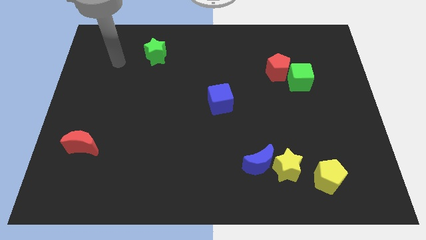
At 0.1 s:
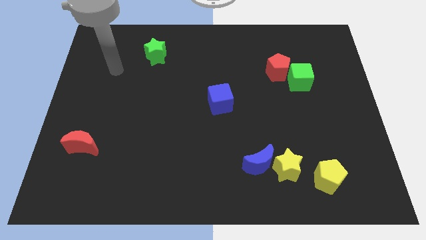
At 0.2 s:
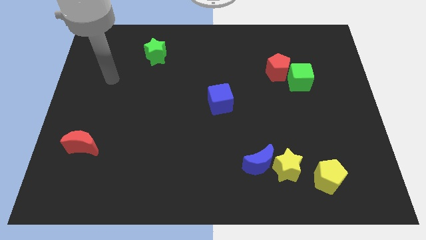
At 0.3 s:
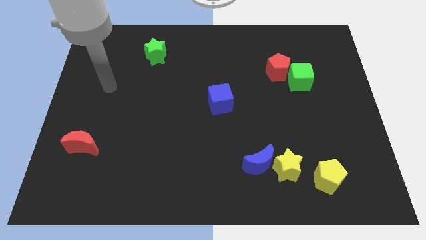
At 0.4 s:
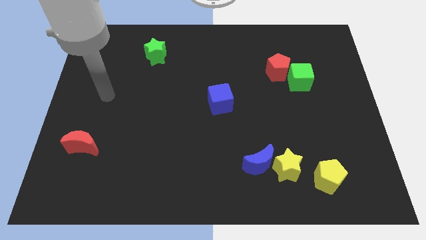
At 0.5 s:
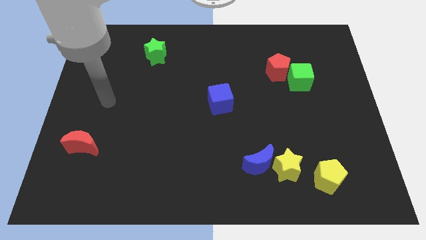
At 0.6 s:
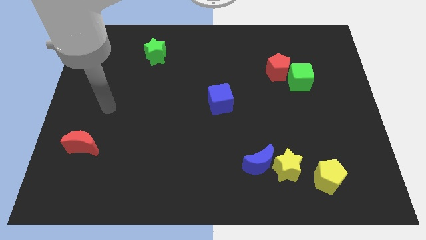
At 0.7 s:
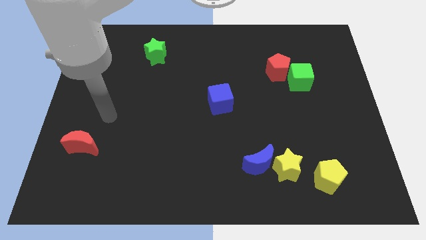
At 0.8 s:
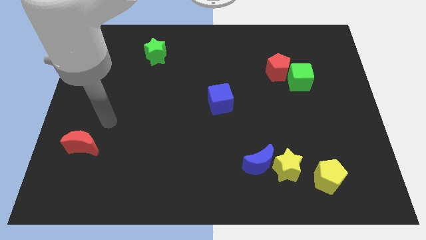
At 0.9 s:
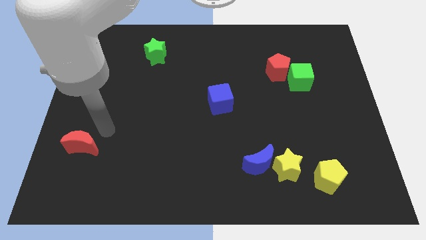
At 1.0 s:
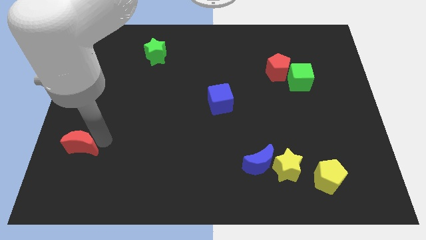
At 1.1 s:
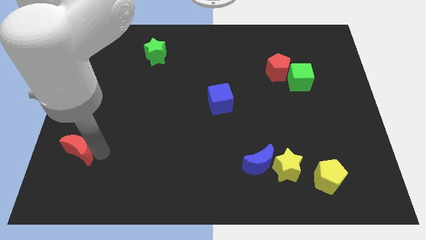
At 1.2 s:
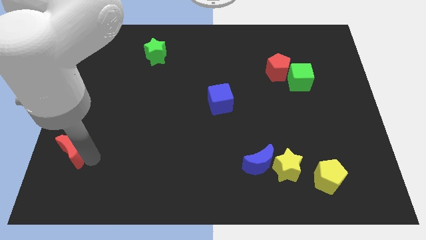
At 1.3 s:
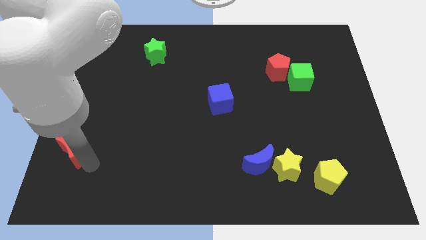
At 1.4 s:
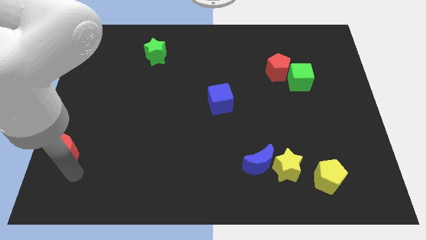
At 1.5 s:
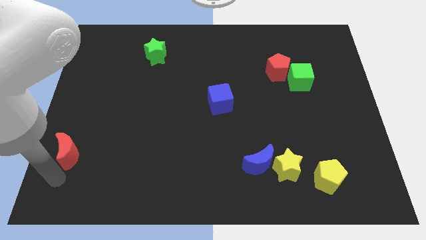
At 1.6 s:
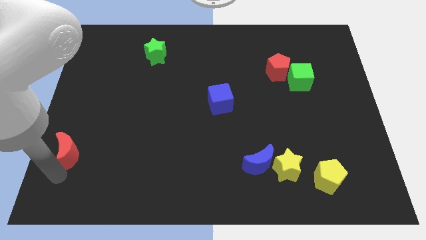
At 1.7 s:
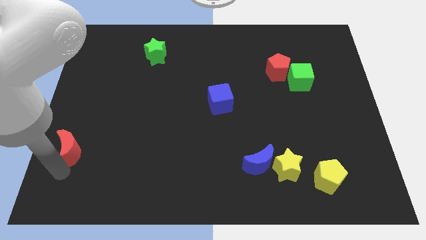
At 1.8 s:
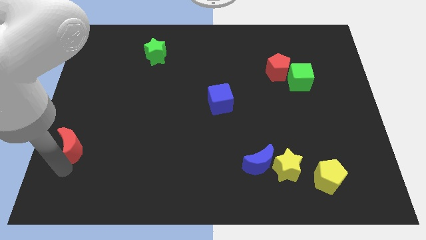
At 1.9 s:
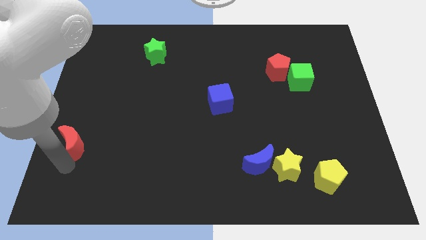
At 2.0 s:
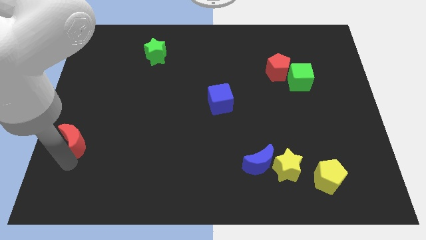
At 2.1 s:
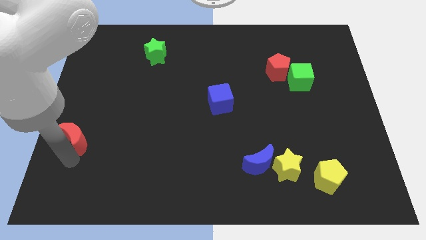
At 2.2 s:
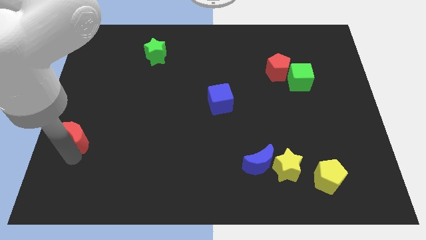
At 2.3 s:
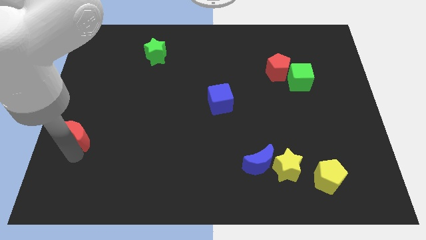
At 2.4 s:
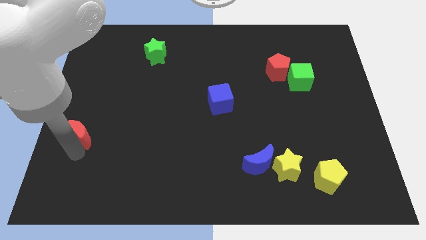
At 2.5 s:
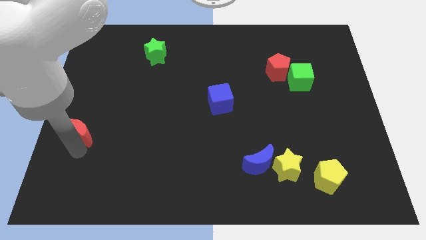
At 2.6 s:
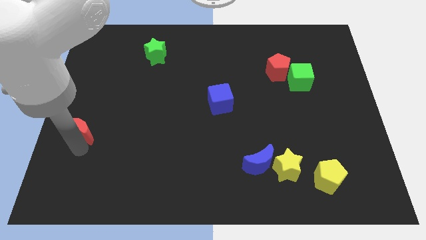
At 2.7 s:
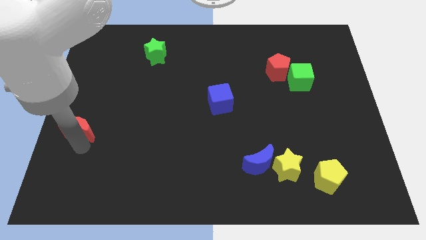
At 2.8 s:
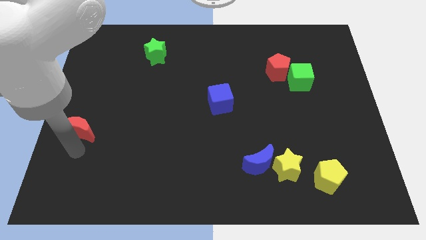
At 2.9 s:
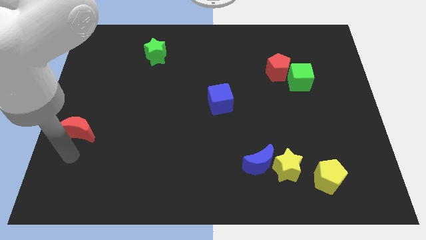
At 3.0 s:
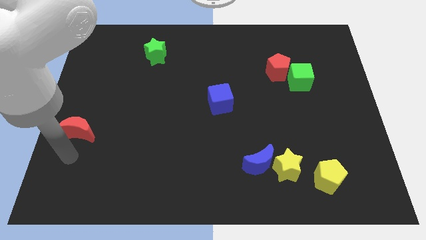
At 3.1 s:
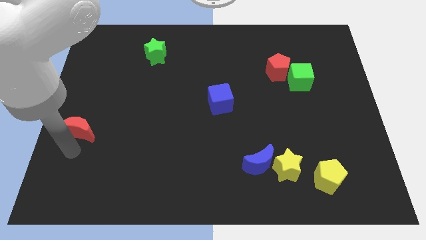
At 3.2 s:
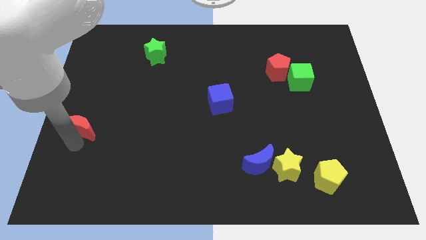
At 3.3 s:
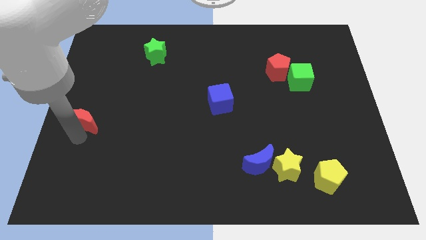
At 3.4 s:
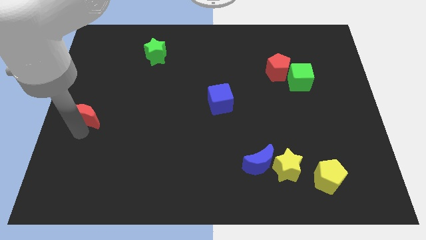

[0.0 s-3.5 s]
slightly push the red moon upwards

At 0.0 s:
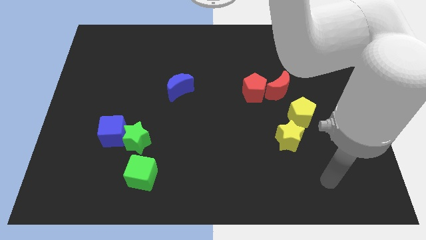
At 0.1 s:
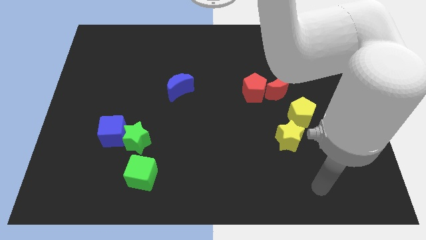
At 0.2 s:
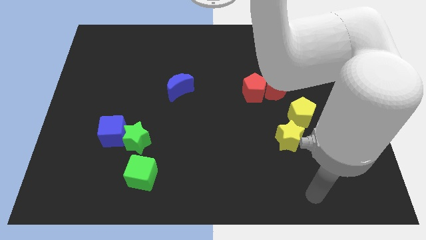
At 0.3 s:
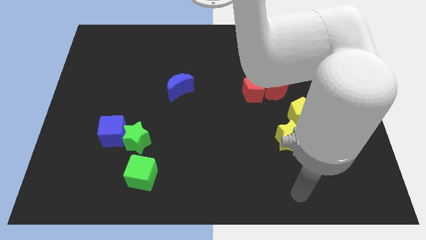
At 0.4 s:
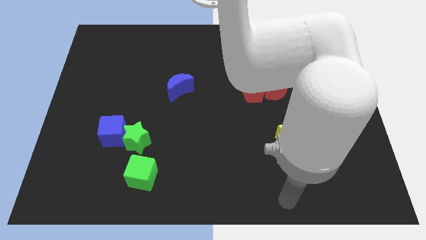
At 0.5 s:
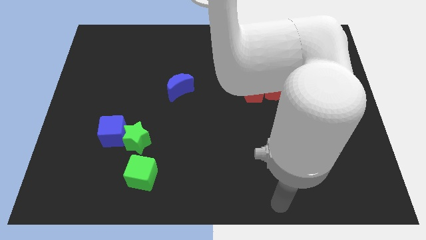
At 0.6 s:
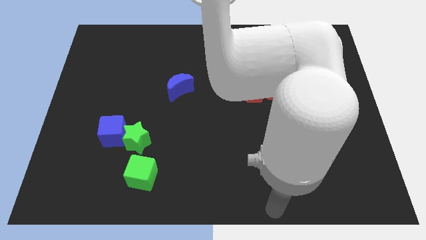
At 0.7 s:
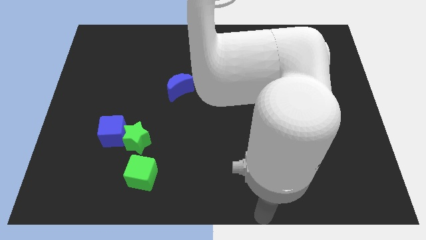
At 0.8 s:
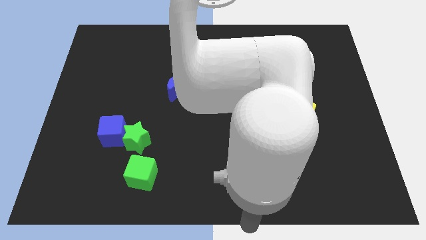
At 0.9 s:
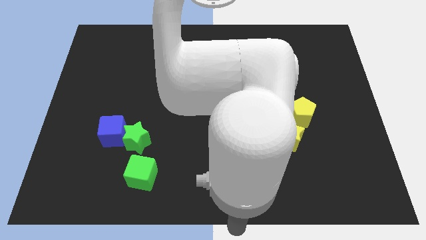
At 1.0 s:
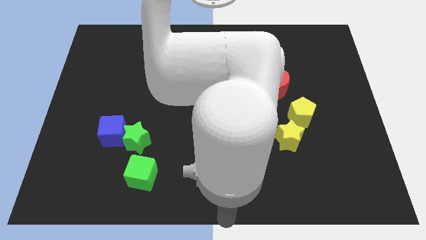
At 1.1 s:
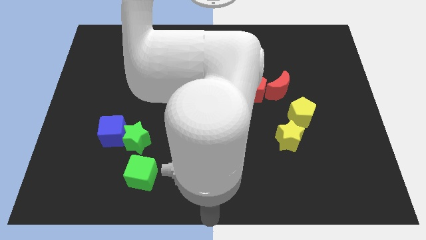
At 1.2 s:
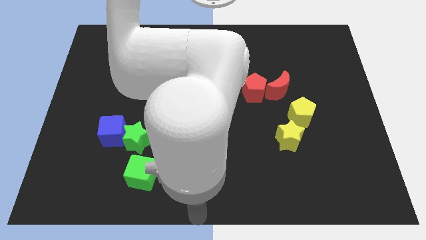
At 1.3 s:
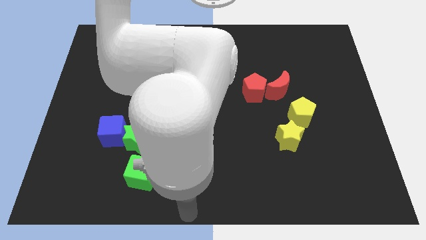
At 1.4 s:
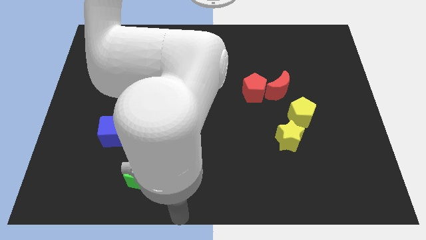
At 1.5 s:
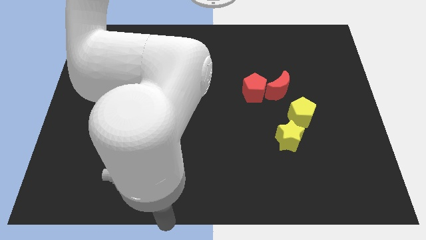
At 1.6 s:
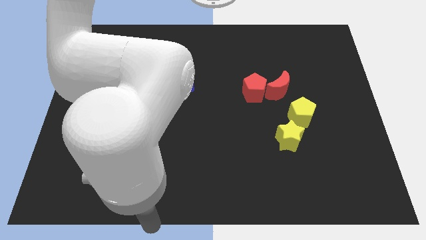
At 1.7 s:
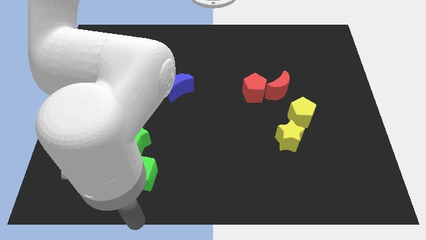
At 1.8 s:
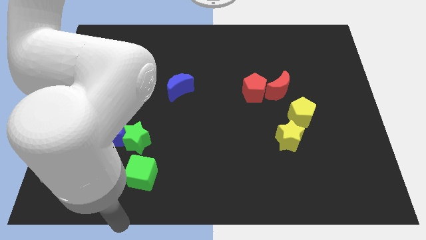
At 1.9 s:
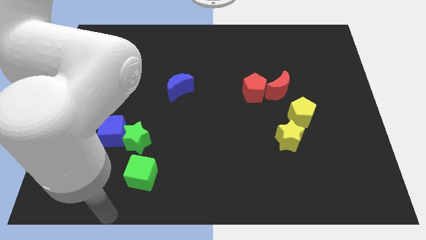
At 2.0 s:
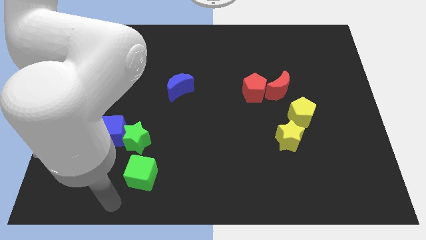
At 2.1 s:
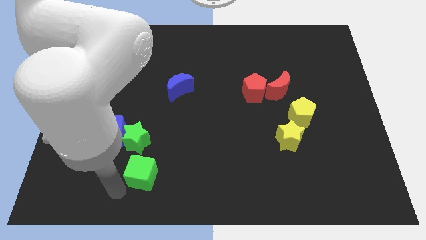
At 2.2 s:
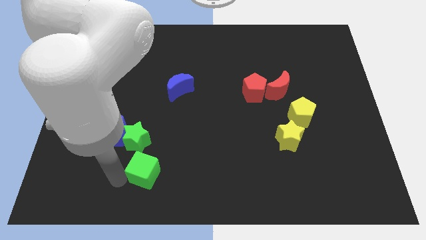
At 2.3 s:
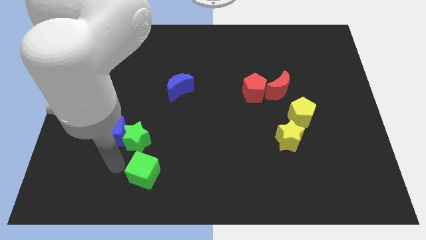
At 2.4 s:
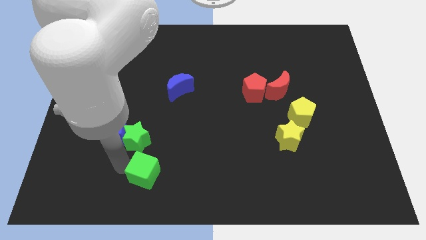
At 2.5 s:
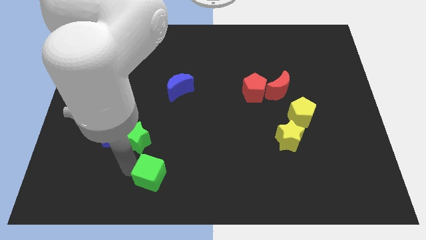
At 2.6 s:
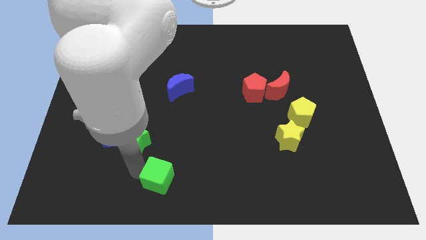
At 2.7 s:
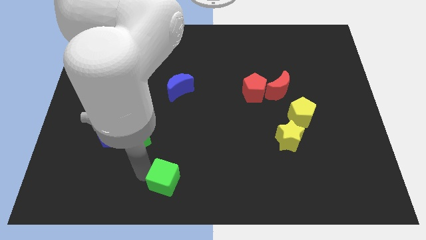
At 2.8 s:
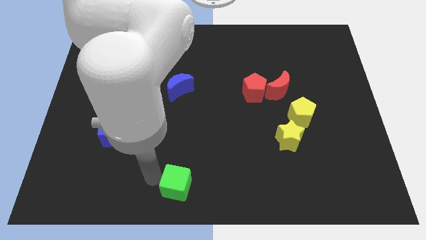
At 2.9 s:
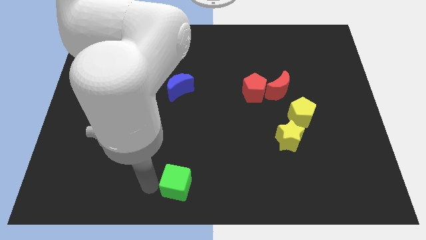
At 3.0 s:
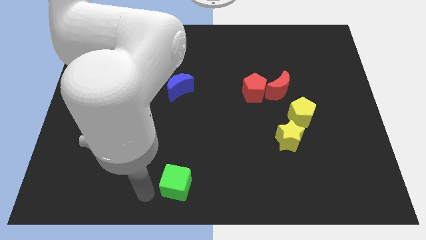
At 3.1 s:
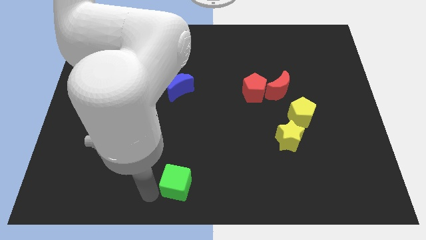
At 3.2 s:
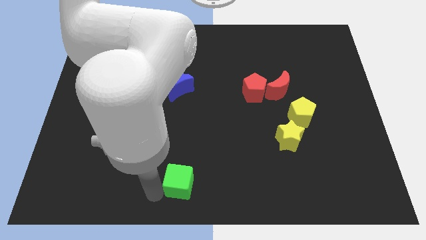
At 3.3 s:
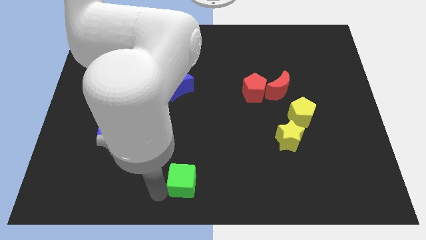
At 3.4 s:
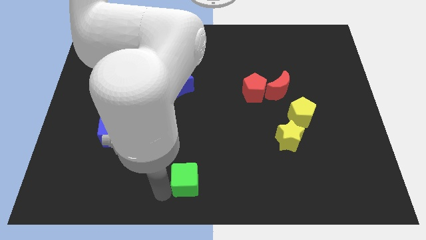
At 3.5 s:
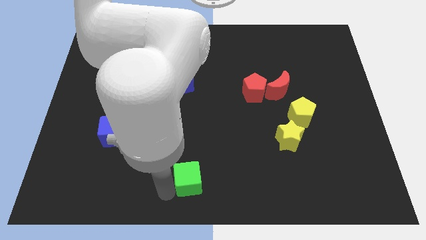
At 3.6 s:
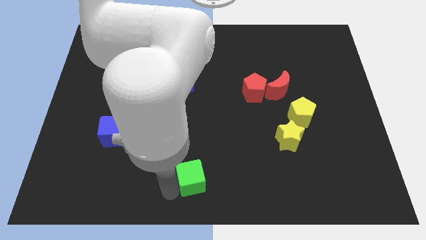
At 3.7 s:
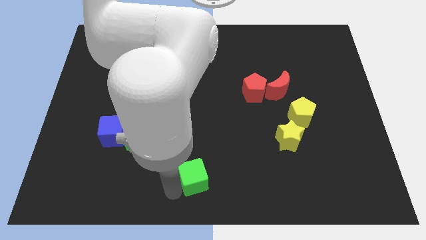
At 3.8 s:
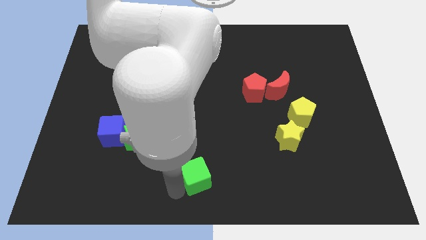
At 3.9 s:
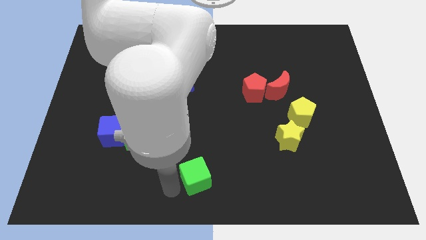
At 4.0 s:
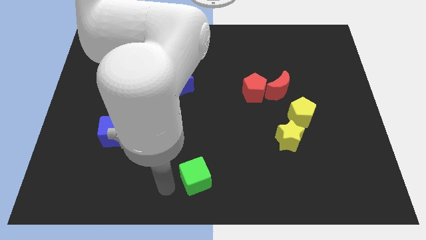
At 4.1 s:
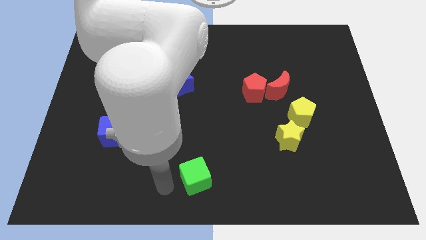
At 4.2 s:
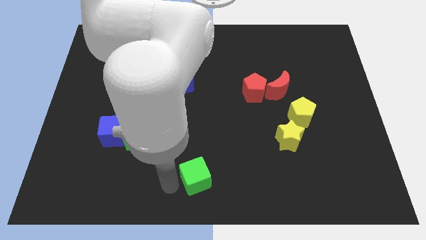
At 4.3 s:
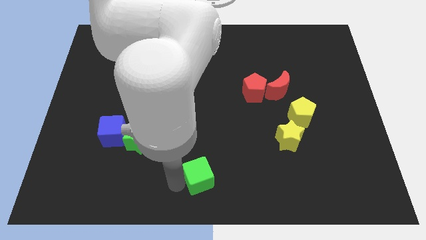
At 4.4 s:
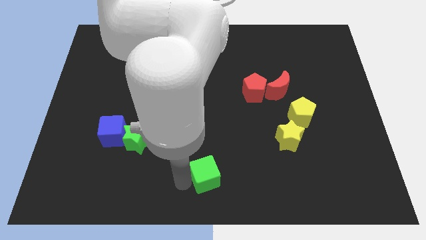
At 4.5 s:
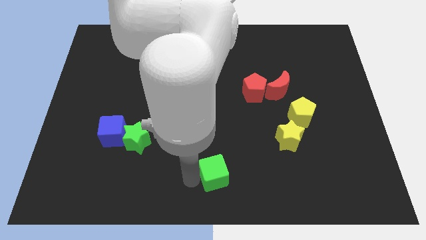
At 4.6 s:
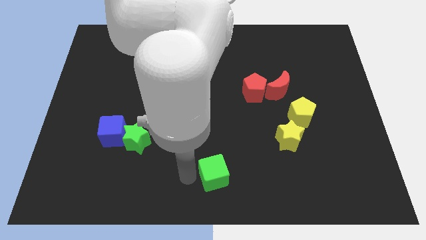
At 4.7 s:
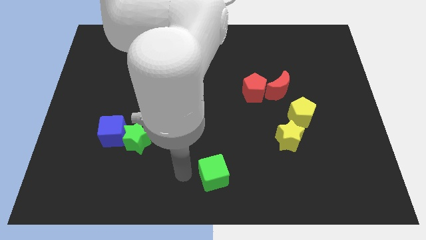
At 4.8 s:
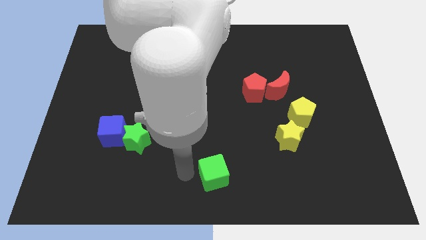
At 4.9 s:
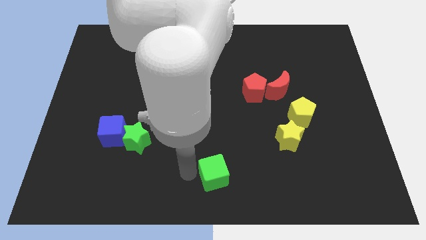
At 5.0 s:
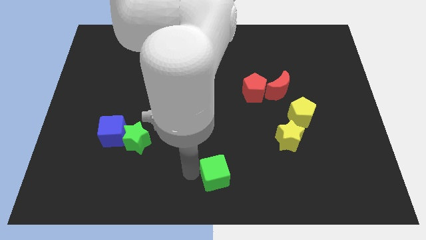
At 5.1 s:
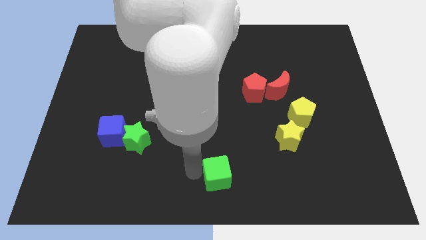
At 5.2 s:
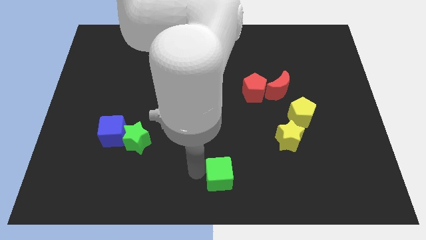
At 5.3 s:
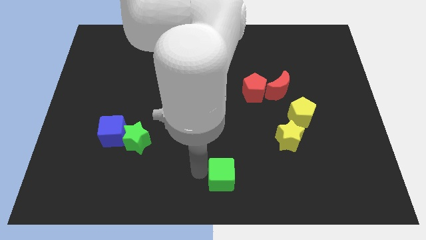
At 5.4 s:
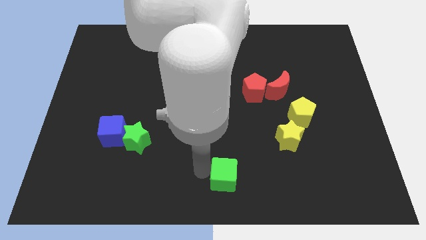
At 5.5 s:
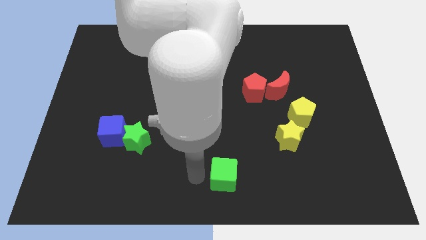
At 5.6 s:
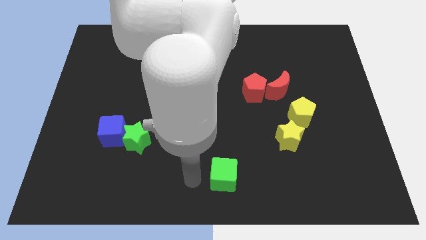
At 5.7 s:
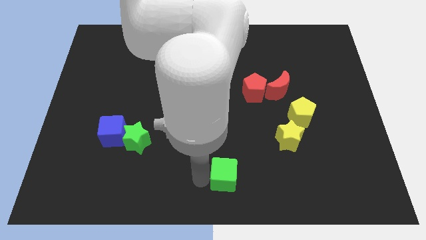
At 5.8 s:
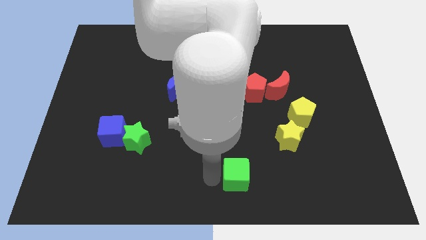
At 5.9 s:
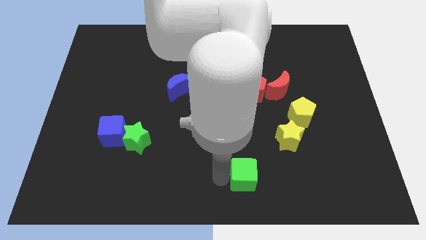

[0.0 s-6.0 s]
move the green cube right
